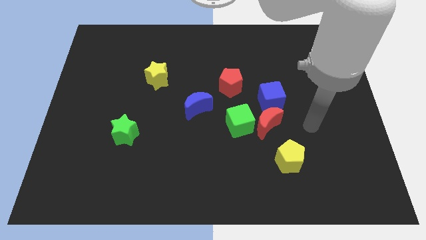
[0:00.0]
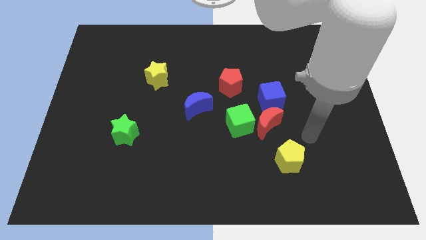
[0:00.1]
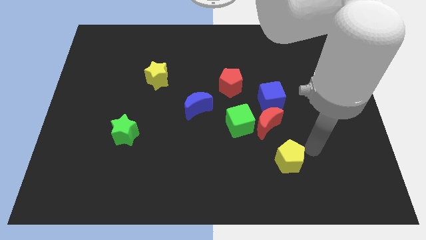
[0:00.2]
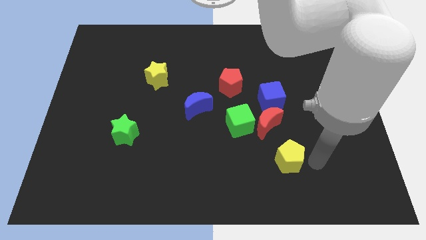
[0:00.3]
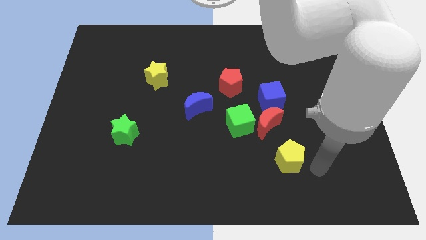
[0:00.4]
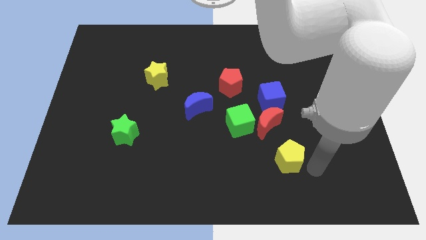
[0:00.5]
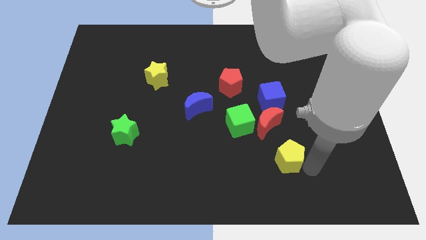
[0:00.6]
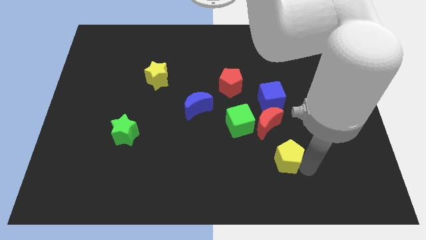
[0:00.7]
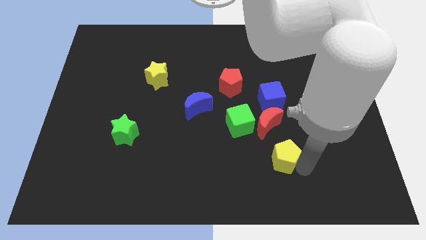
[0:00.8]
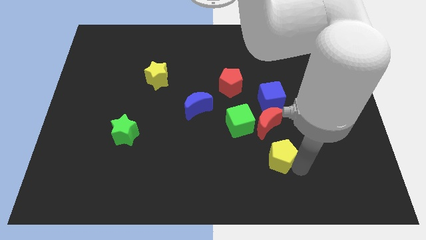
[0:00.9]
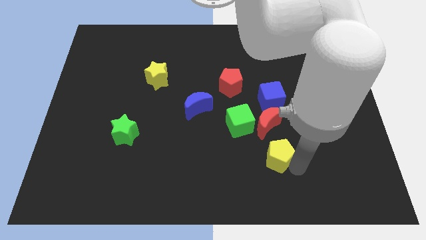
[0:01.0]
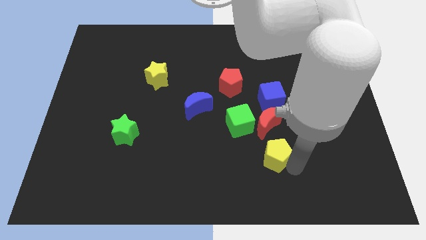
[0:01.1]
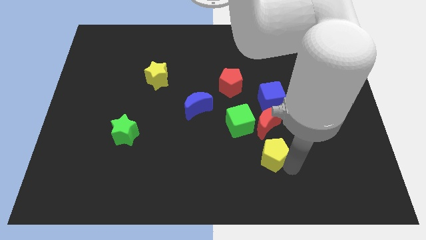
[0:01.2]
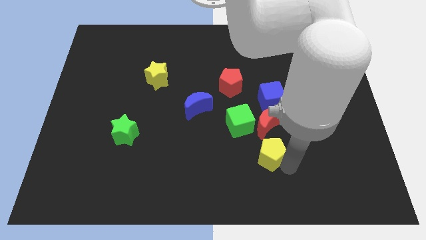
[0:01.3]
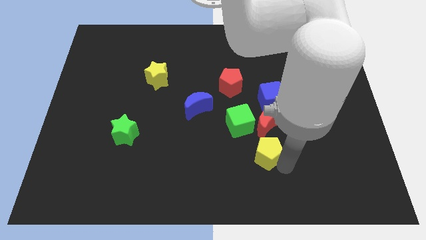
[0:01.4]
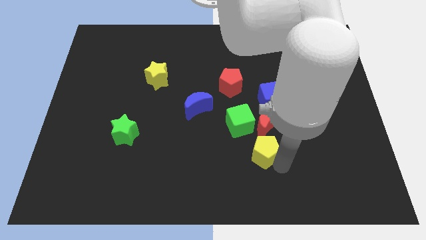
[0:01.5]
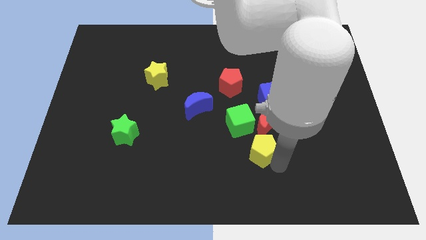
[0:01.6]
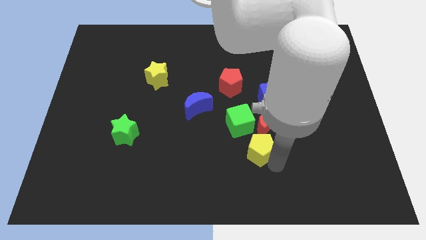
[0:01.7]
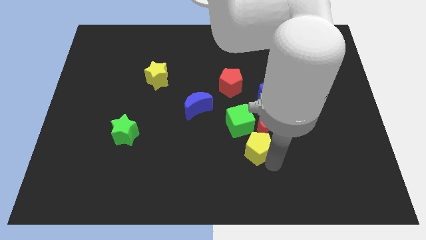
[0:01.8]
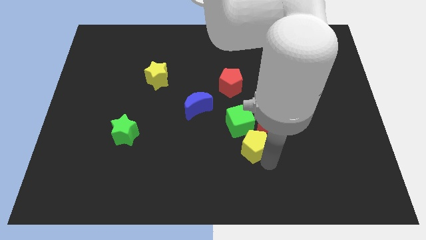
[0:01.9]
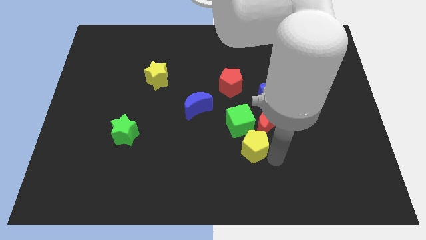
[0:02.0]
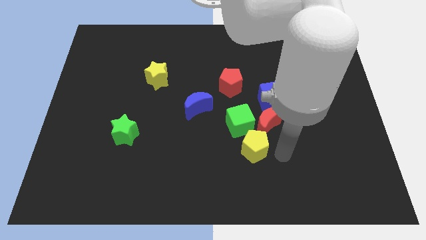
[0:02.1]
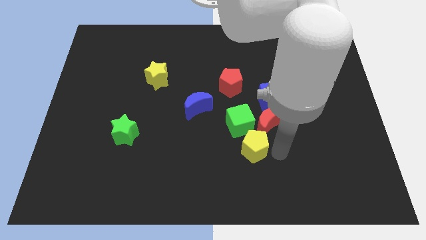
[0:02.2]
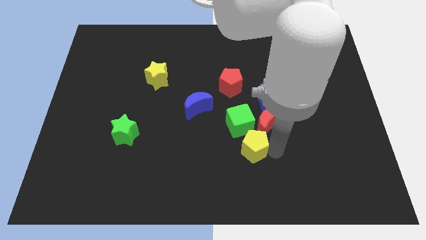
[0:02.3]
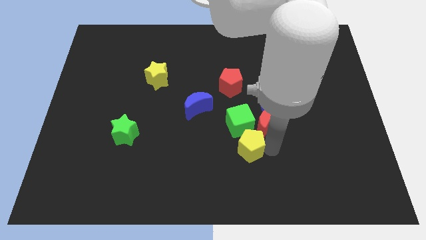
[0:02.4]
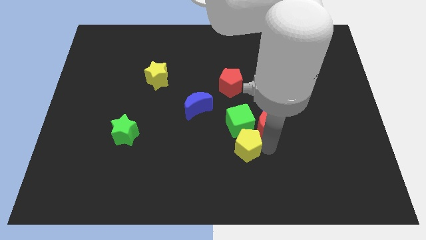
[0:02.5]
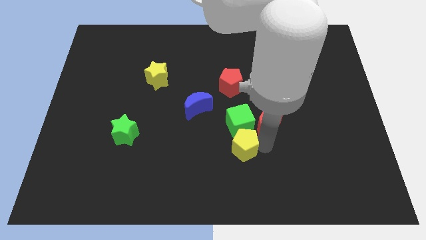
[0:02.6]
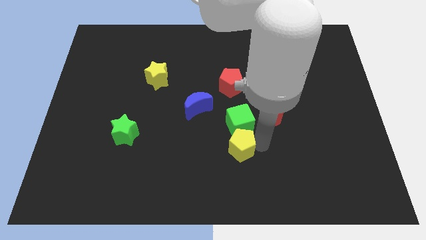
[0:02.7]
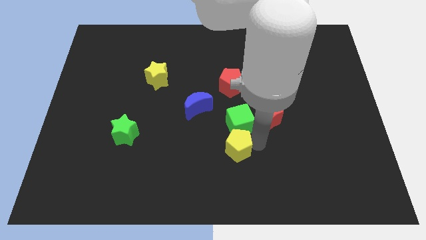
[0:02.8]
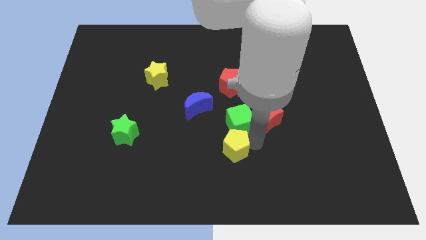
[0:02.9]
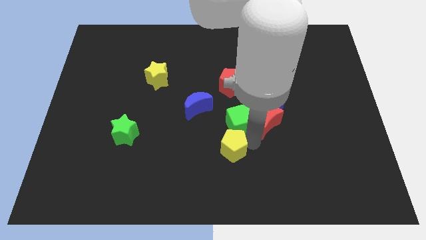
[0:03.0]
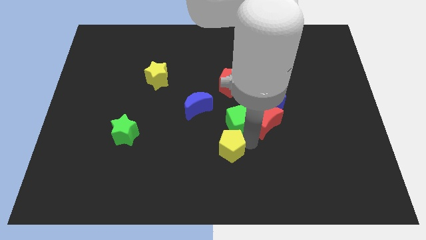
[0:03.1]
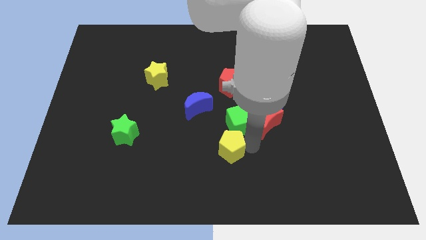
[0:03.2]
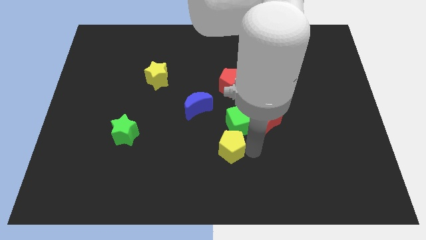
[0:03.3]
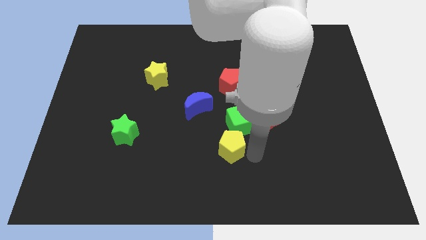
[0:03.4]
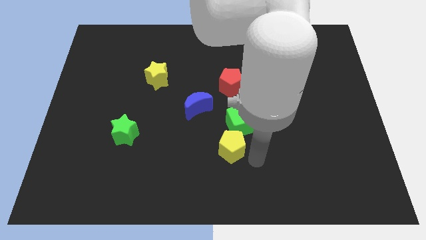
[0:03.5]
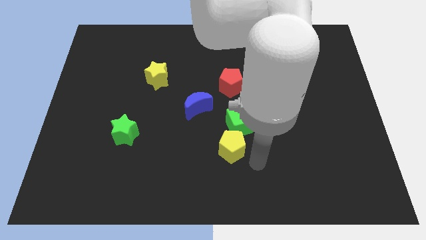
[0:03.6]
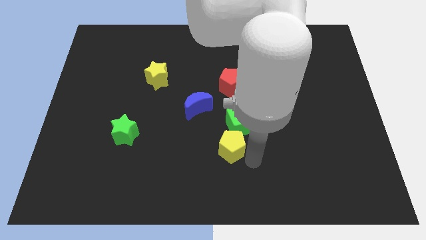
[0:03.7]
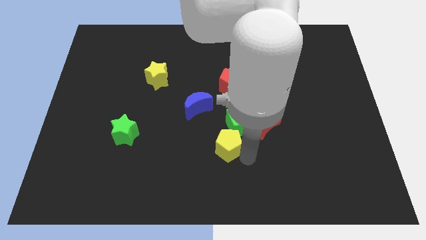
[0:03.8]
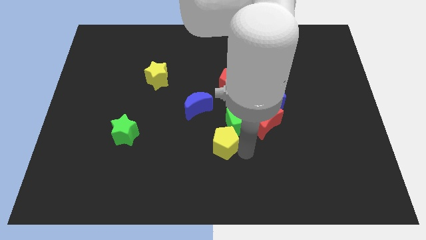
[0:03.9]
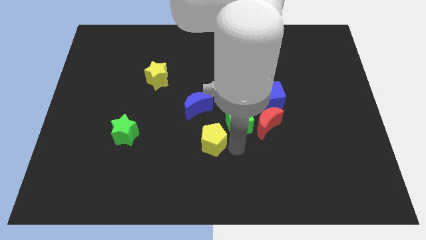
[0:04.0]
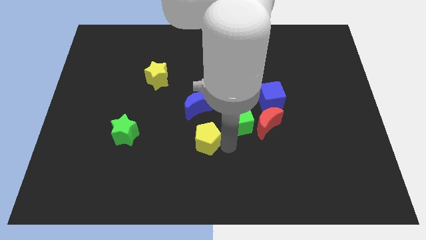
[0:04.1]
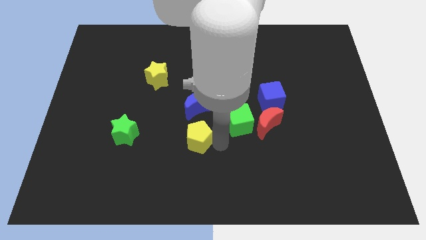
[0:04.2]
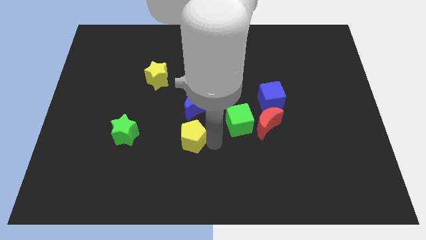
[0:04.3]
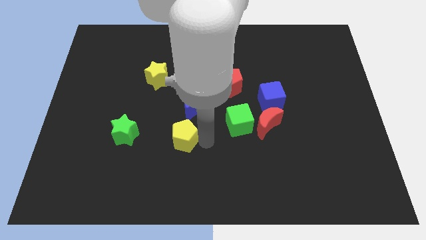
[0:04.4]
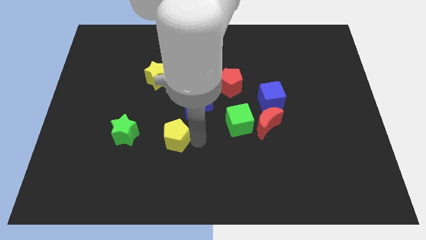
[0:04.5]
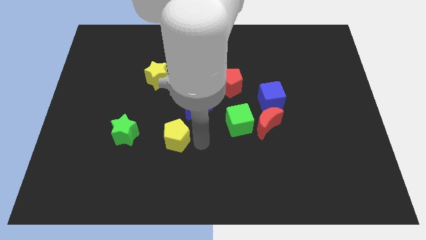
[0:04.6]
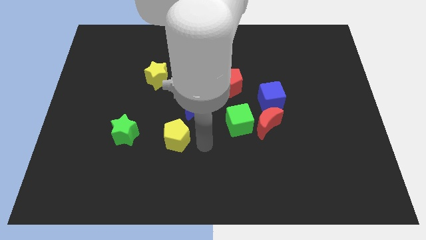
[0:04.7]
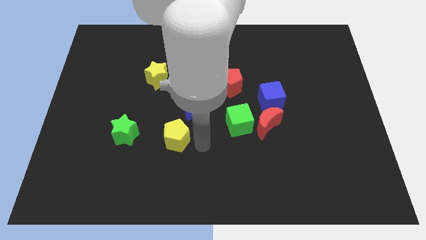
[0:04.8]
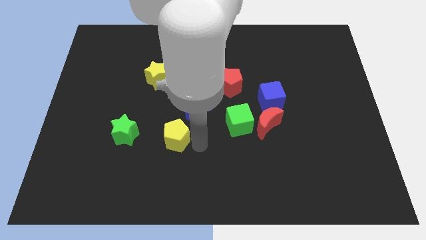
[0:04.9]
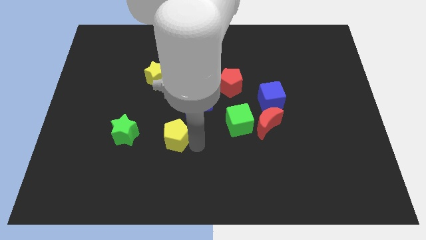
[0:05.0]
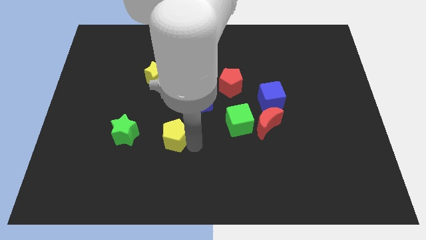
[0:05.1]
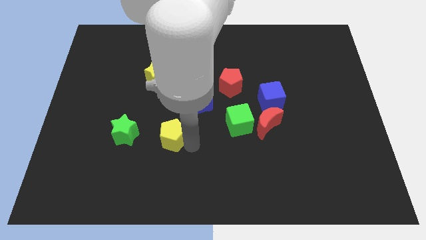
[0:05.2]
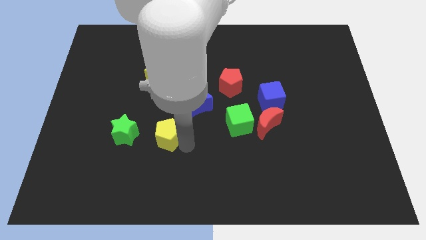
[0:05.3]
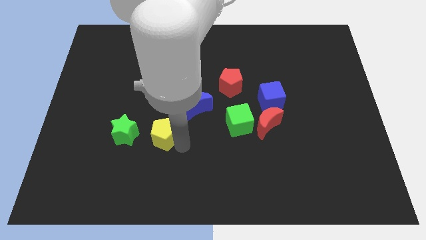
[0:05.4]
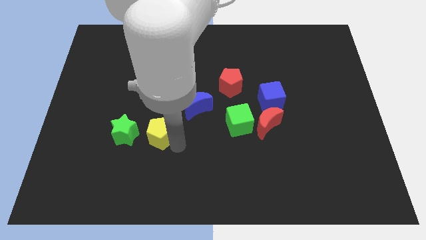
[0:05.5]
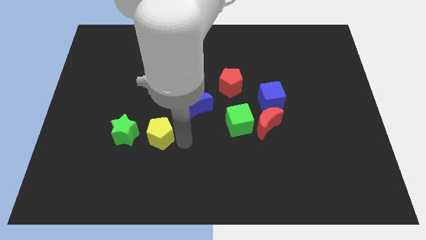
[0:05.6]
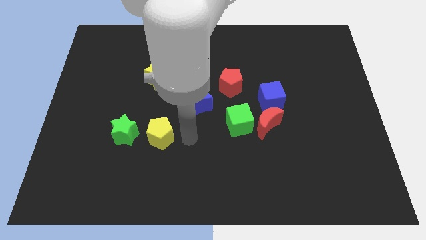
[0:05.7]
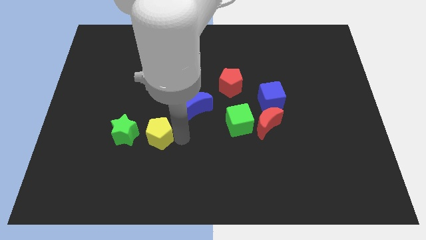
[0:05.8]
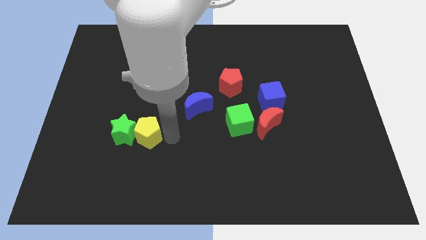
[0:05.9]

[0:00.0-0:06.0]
move the yellow pentagon next to the green star

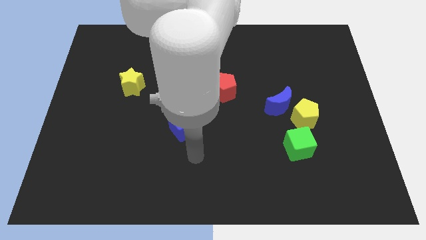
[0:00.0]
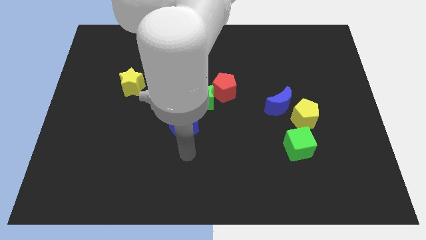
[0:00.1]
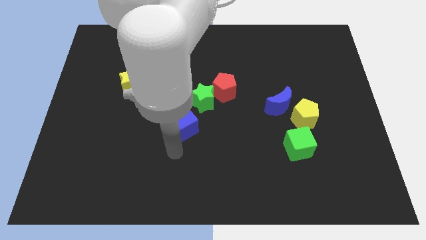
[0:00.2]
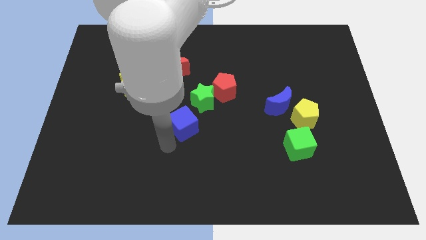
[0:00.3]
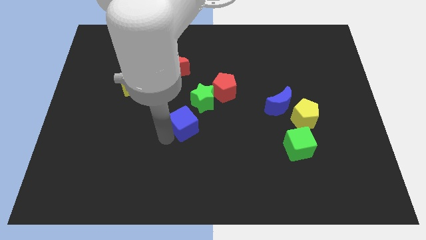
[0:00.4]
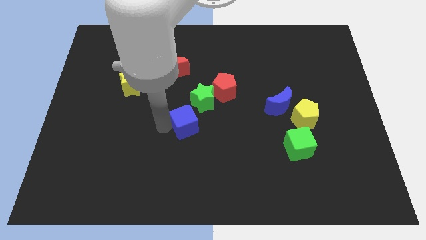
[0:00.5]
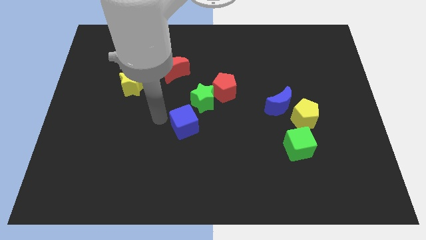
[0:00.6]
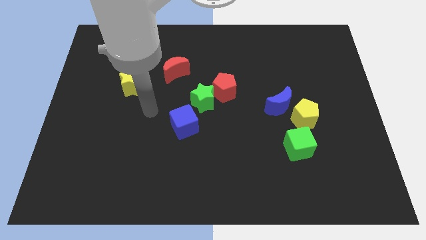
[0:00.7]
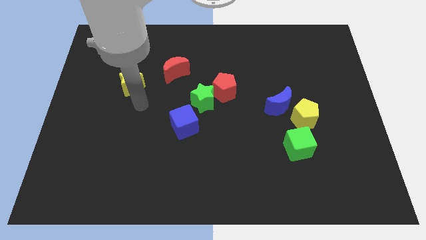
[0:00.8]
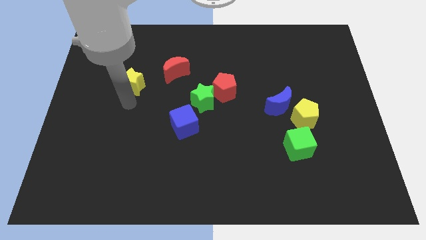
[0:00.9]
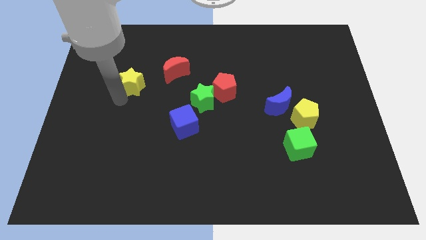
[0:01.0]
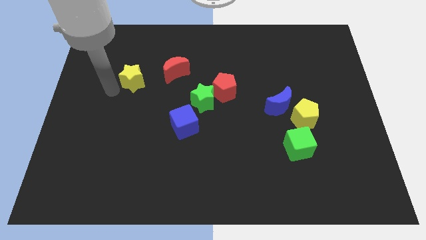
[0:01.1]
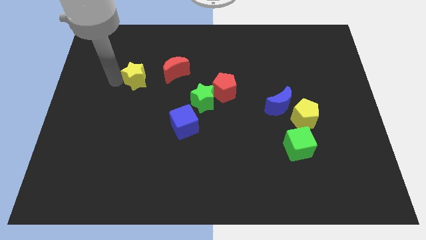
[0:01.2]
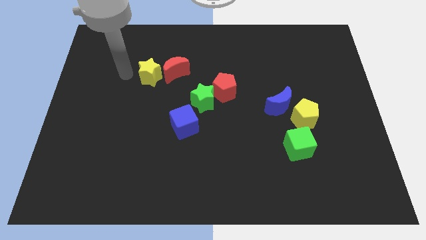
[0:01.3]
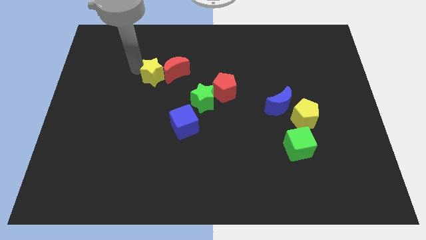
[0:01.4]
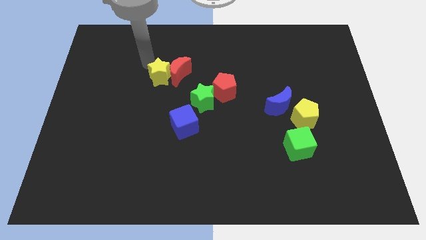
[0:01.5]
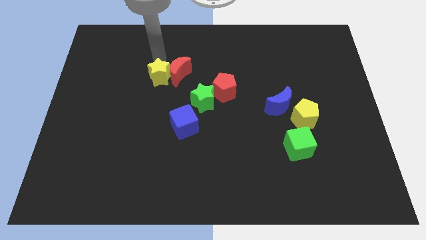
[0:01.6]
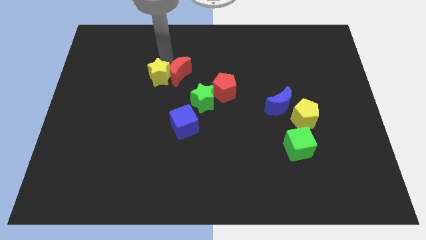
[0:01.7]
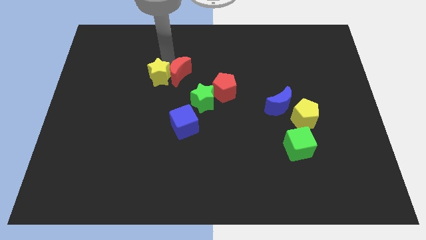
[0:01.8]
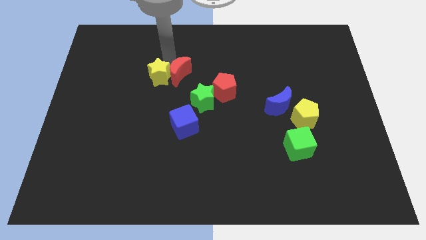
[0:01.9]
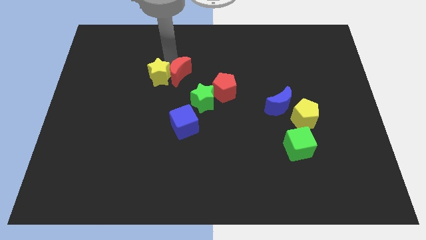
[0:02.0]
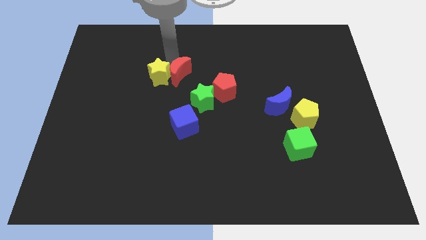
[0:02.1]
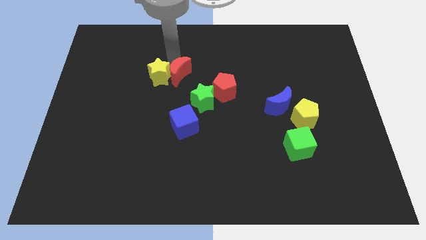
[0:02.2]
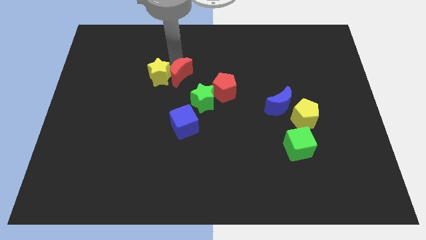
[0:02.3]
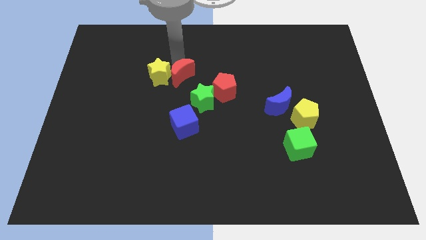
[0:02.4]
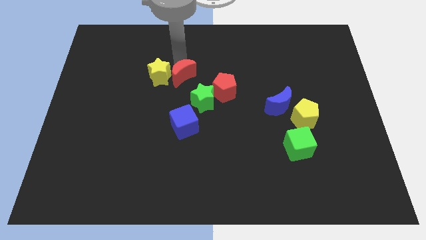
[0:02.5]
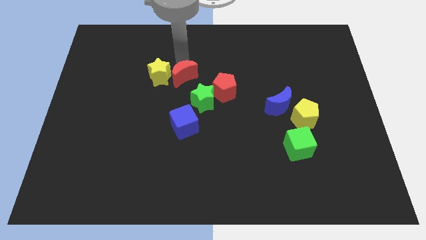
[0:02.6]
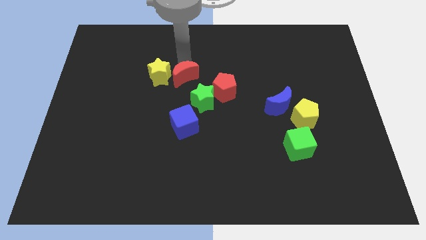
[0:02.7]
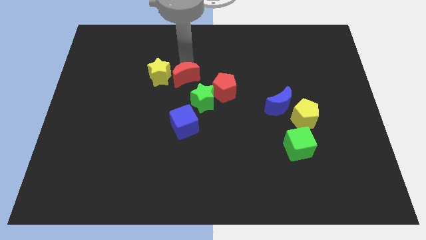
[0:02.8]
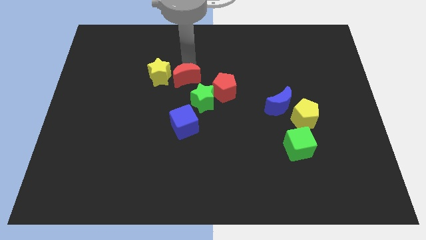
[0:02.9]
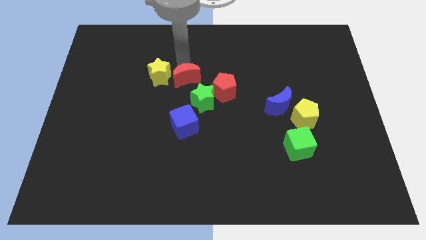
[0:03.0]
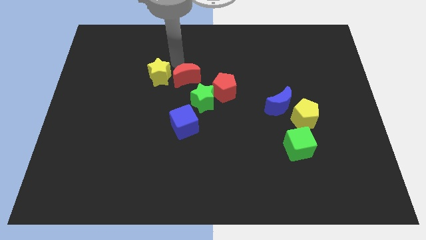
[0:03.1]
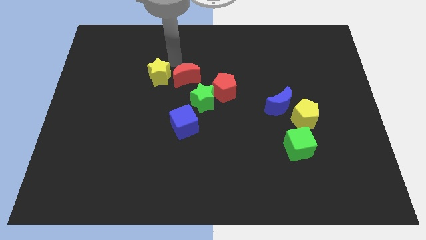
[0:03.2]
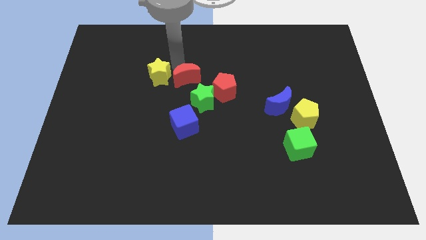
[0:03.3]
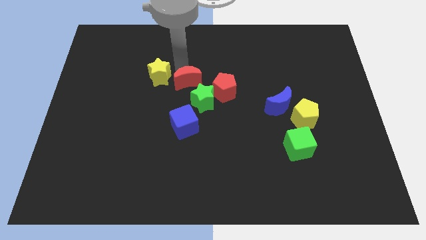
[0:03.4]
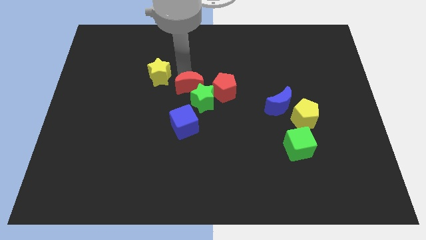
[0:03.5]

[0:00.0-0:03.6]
push the red moon next to the green star
